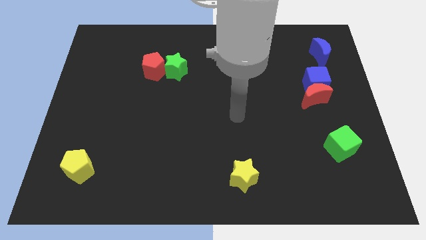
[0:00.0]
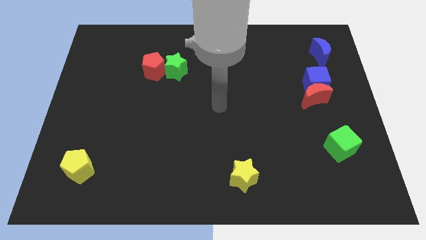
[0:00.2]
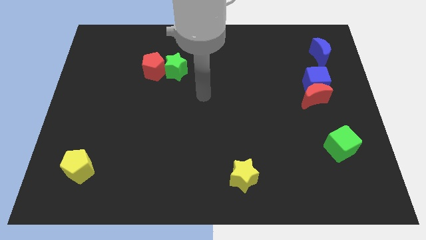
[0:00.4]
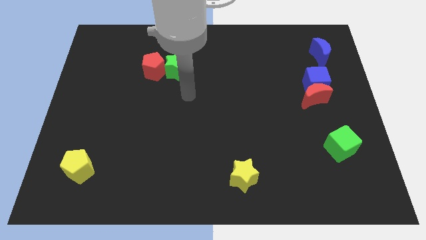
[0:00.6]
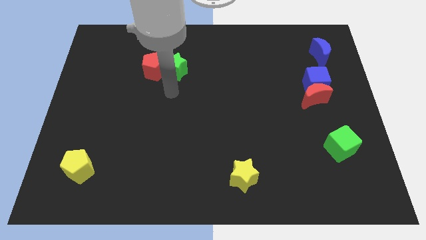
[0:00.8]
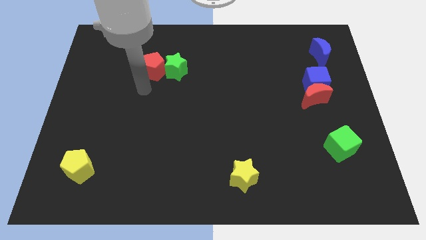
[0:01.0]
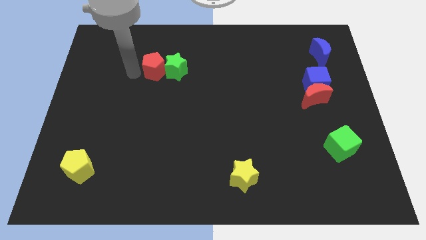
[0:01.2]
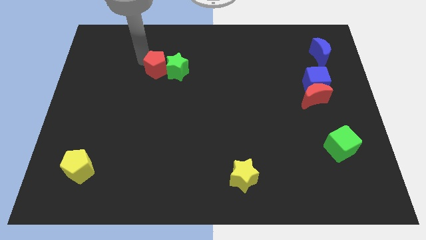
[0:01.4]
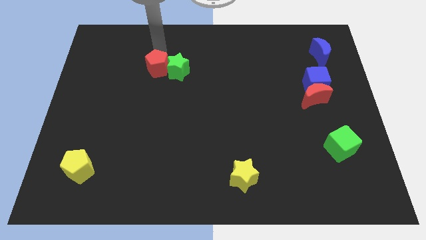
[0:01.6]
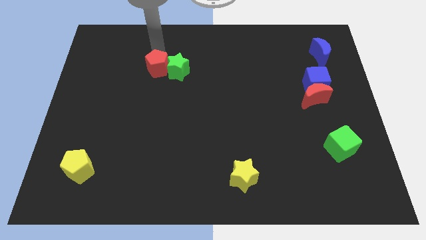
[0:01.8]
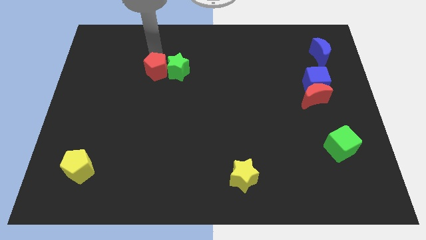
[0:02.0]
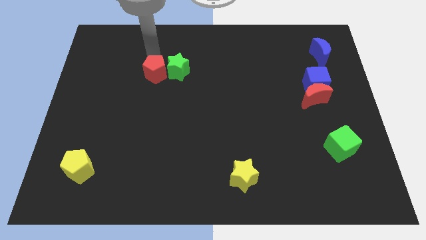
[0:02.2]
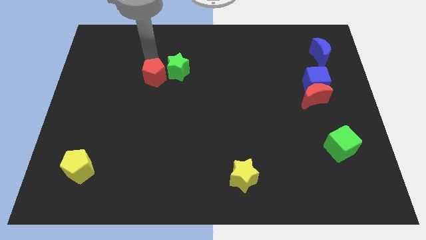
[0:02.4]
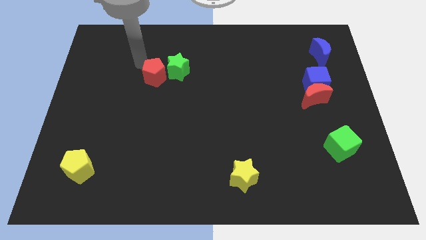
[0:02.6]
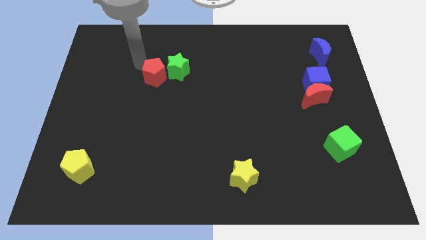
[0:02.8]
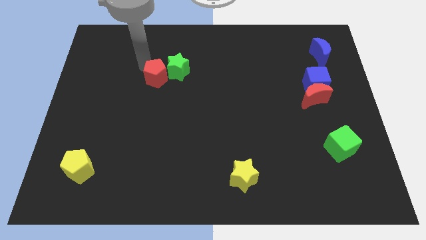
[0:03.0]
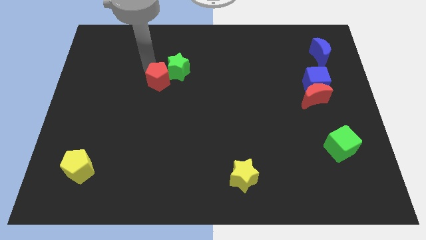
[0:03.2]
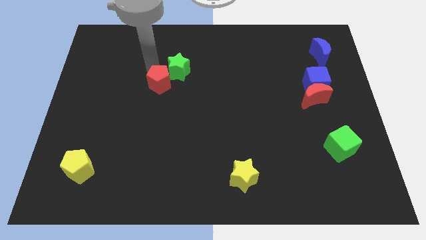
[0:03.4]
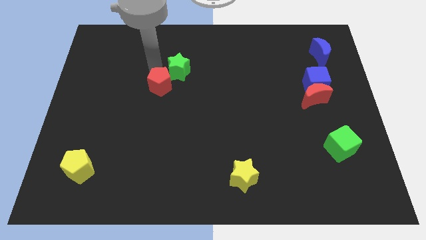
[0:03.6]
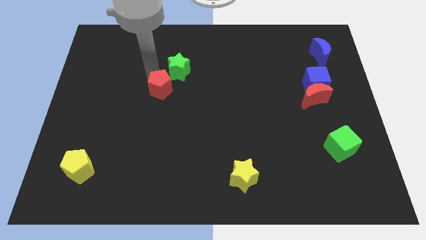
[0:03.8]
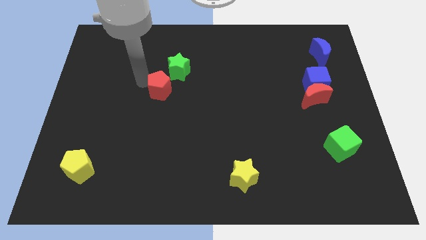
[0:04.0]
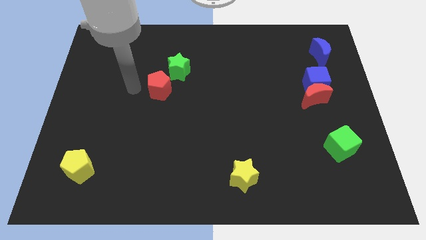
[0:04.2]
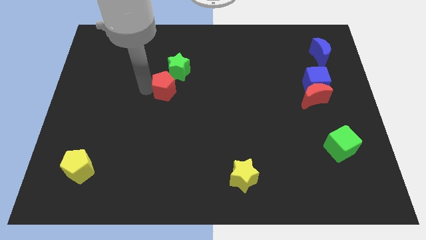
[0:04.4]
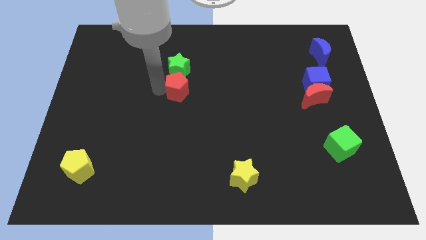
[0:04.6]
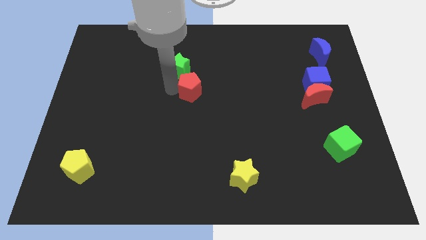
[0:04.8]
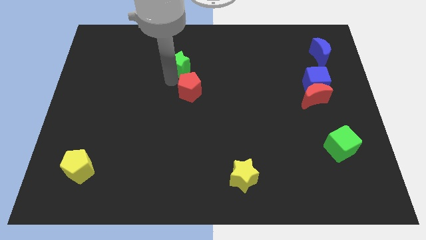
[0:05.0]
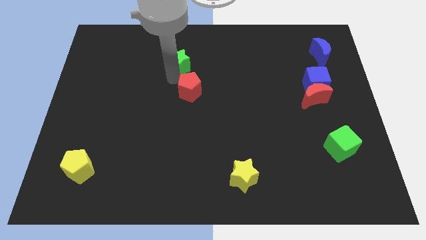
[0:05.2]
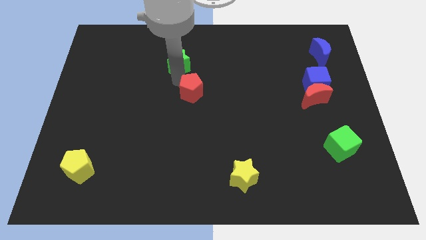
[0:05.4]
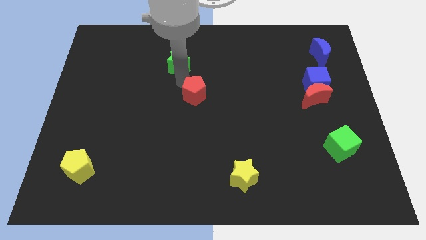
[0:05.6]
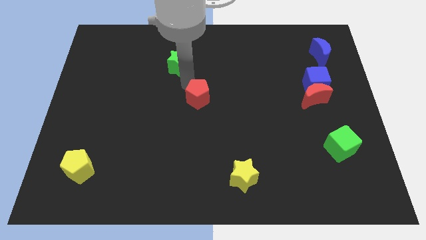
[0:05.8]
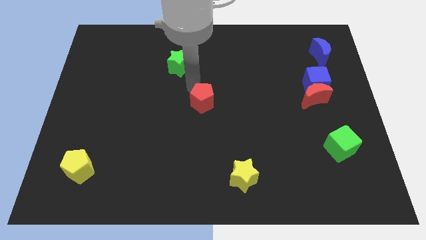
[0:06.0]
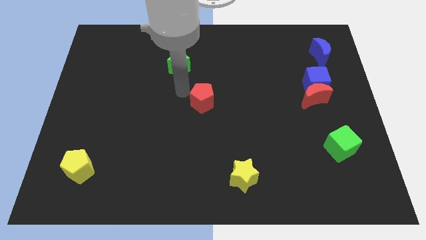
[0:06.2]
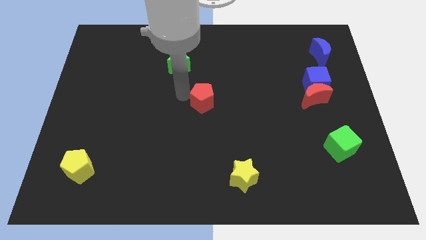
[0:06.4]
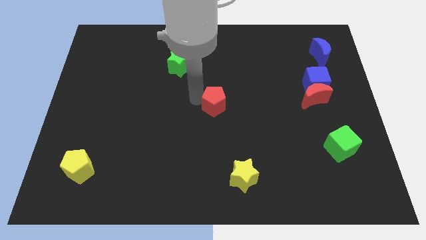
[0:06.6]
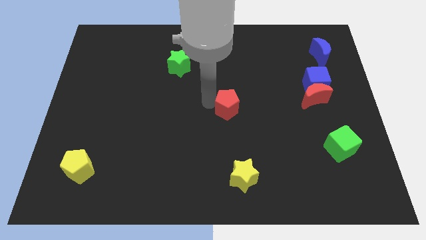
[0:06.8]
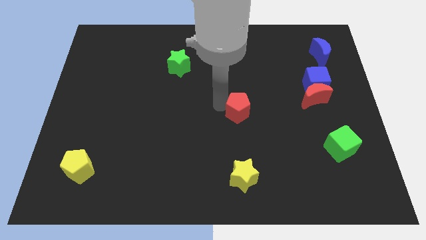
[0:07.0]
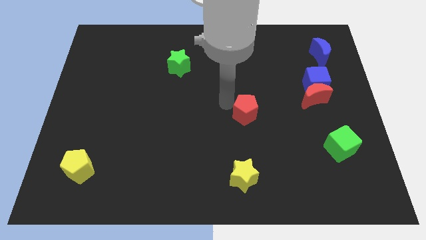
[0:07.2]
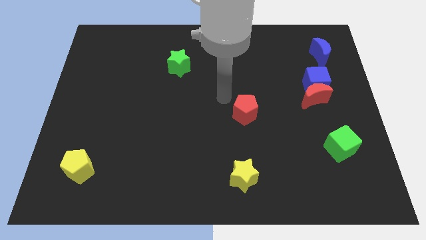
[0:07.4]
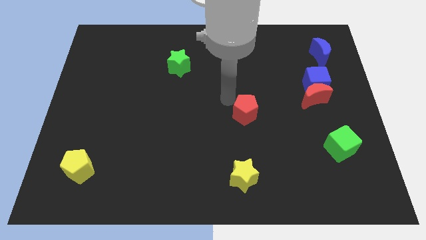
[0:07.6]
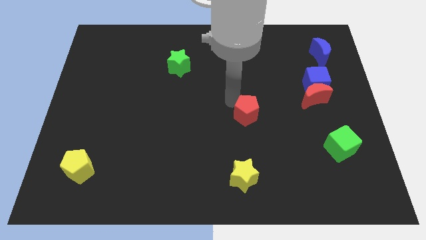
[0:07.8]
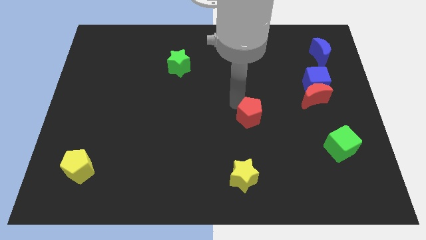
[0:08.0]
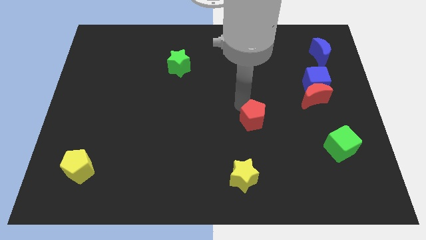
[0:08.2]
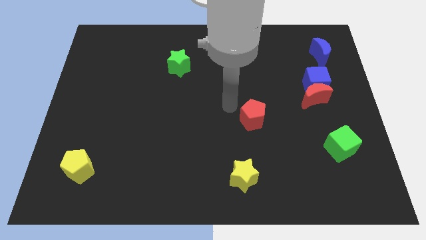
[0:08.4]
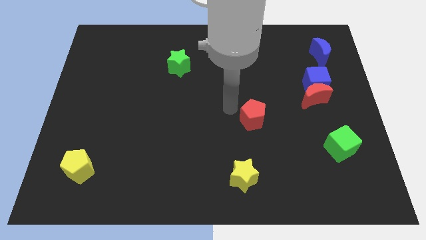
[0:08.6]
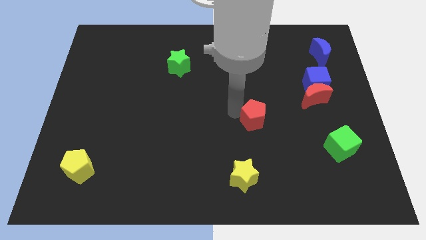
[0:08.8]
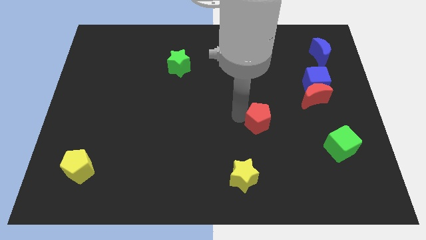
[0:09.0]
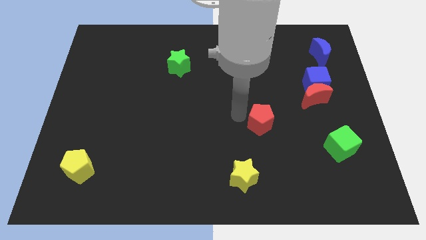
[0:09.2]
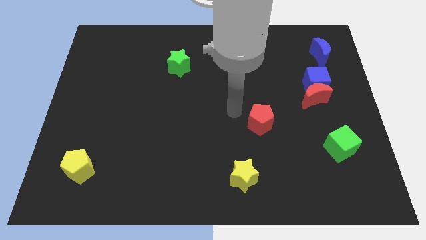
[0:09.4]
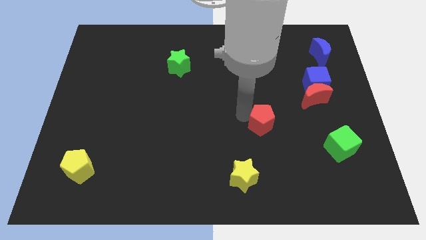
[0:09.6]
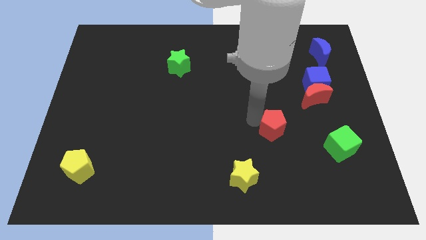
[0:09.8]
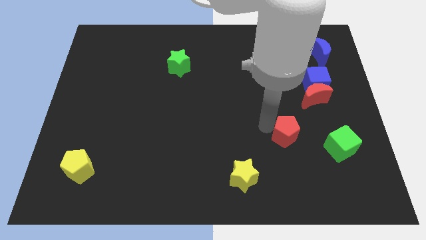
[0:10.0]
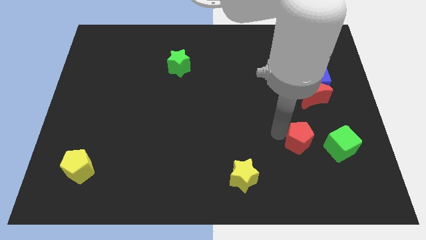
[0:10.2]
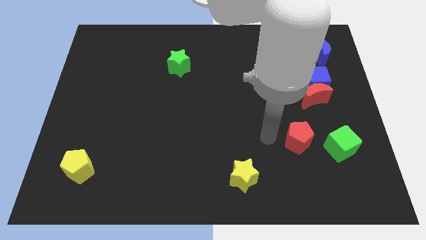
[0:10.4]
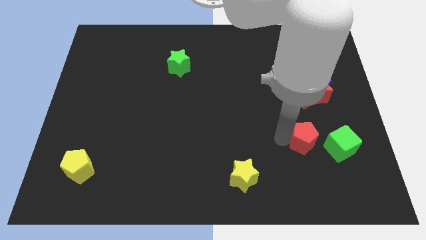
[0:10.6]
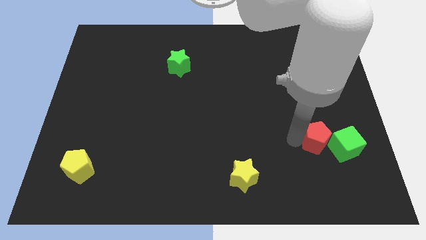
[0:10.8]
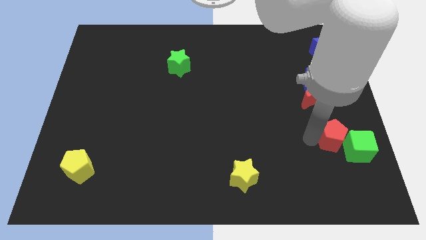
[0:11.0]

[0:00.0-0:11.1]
slide the red pentagon towards the green cube

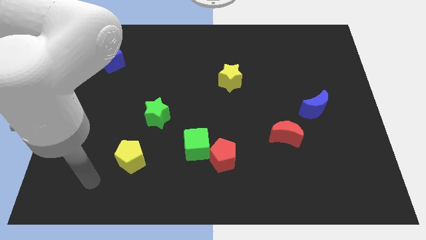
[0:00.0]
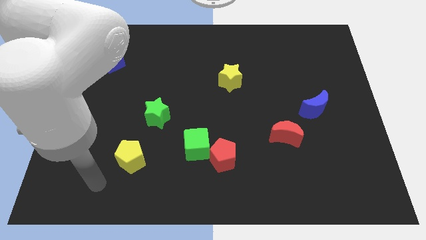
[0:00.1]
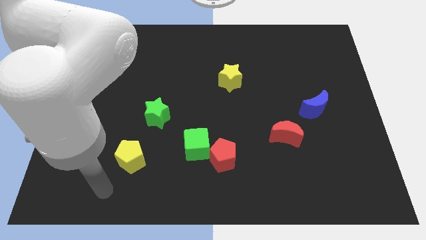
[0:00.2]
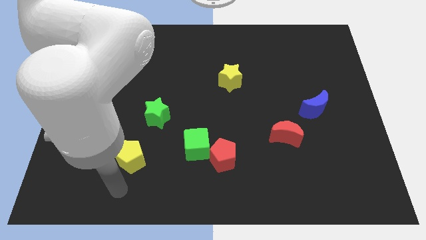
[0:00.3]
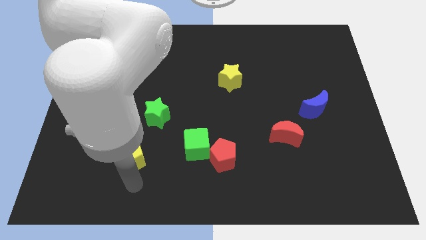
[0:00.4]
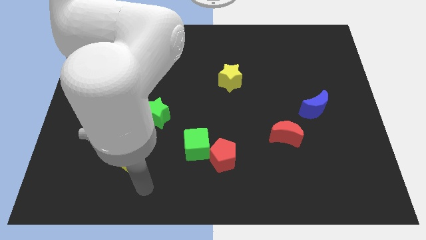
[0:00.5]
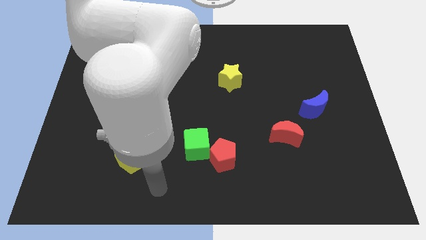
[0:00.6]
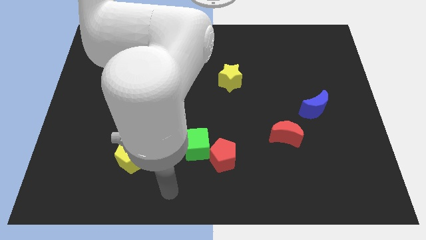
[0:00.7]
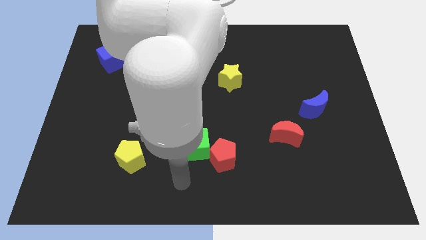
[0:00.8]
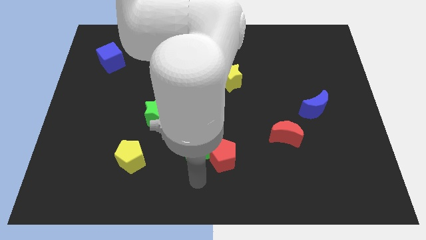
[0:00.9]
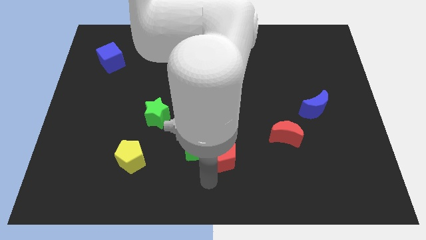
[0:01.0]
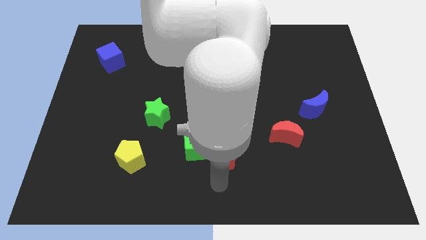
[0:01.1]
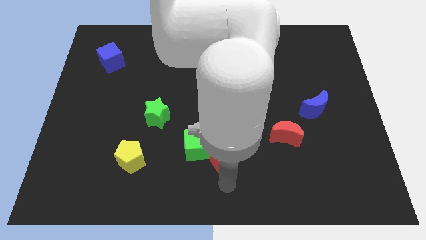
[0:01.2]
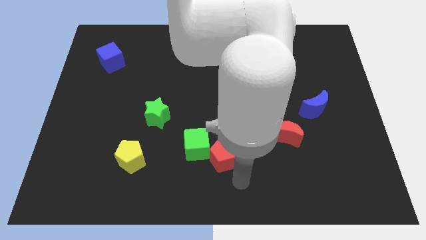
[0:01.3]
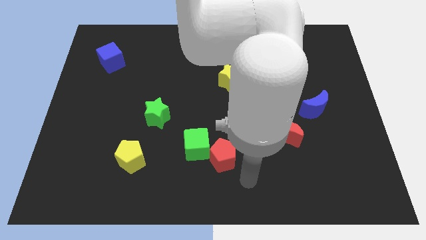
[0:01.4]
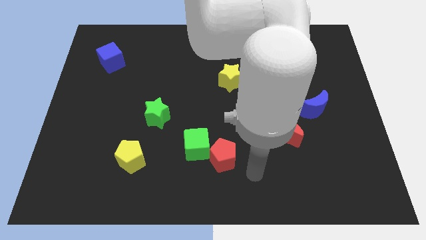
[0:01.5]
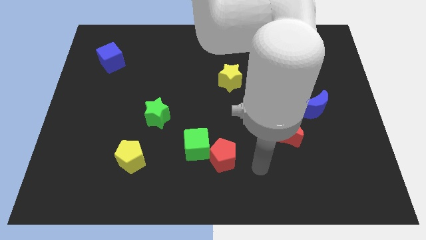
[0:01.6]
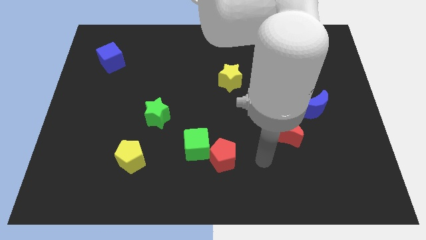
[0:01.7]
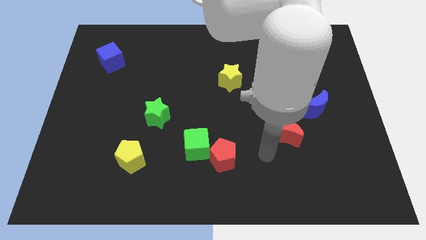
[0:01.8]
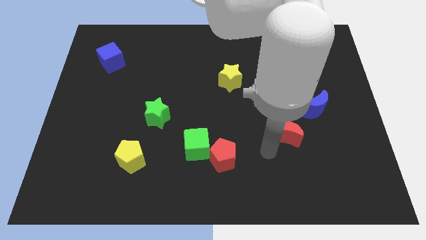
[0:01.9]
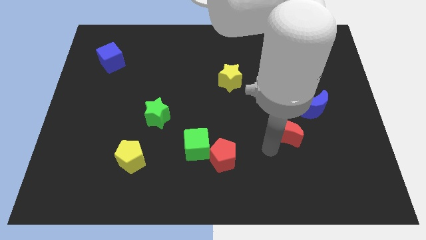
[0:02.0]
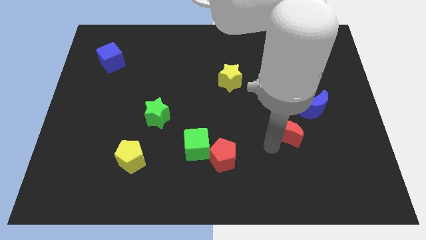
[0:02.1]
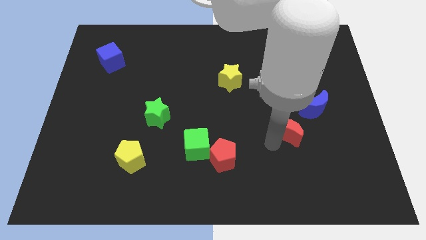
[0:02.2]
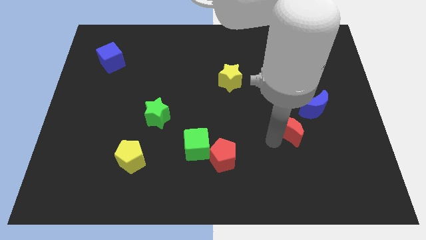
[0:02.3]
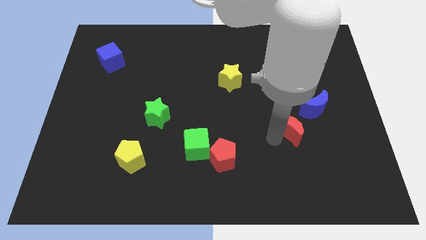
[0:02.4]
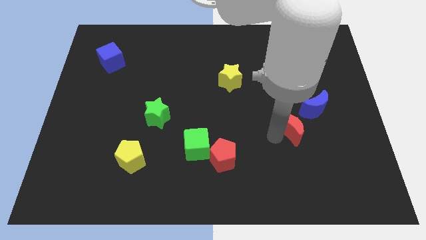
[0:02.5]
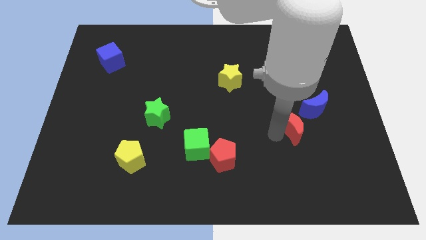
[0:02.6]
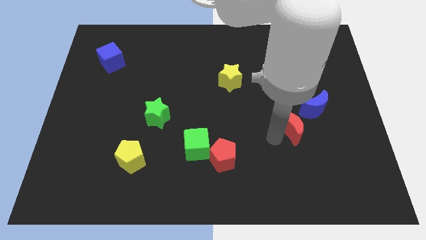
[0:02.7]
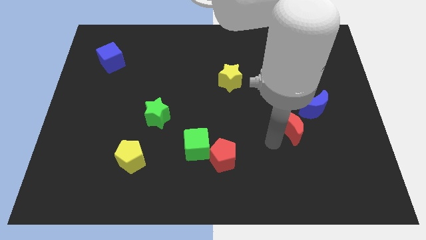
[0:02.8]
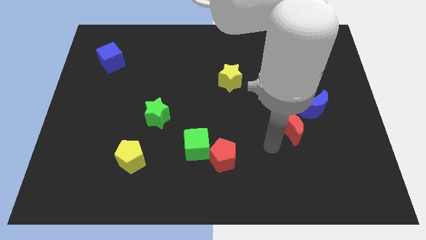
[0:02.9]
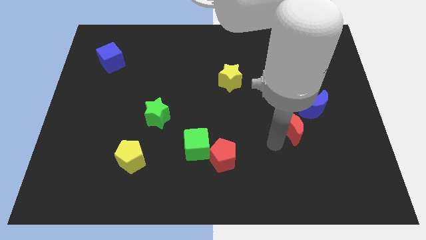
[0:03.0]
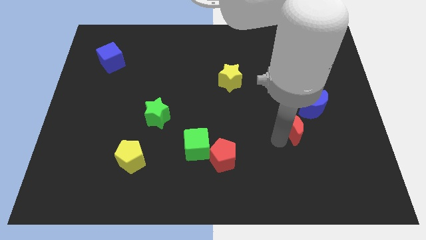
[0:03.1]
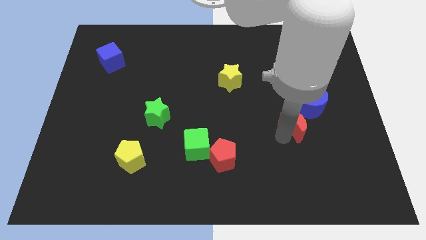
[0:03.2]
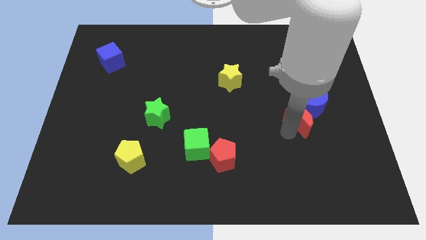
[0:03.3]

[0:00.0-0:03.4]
move the red moon close to the blue moon
